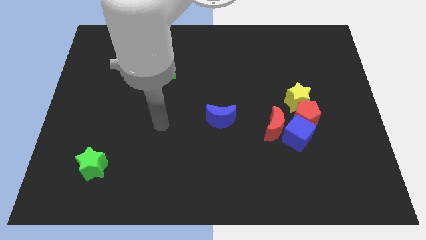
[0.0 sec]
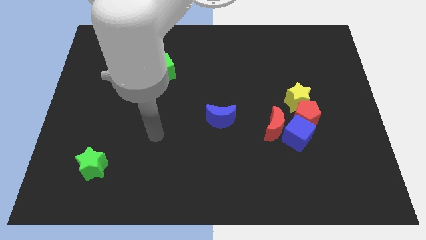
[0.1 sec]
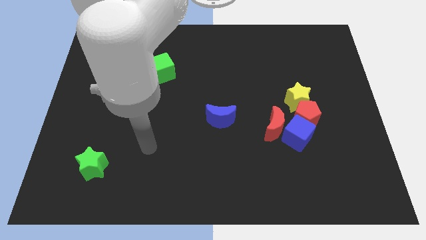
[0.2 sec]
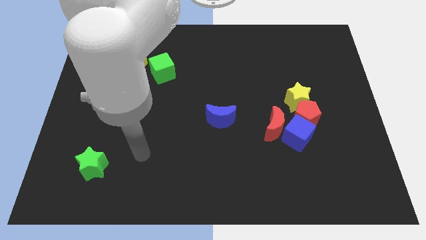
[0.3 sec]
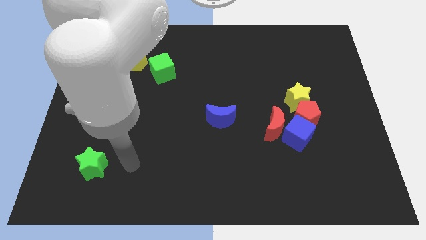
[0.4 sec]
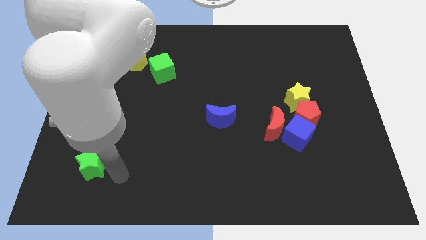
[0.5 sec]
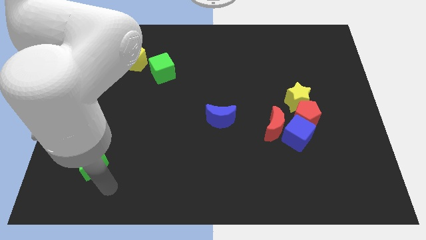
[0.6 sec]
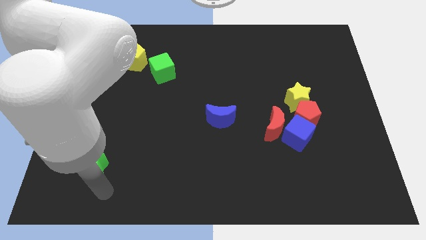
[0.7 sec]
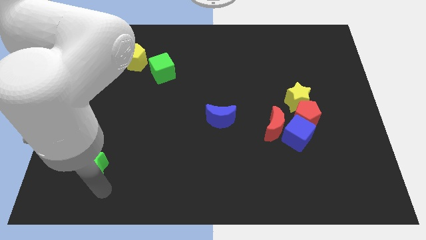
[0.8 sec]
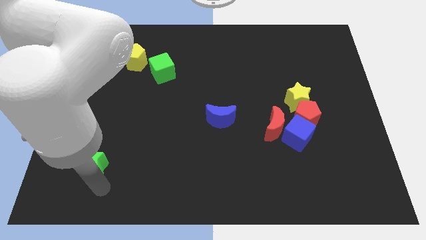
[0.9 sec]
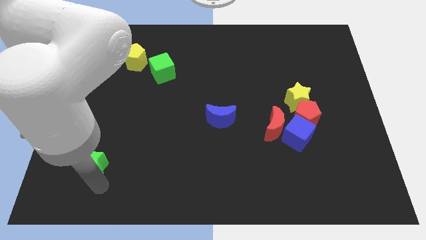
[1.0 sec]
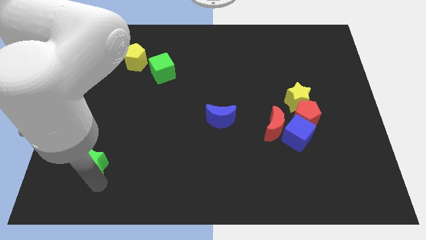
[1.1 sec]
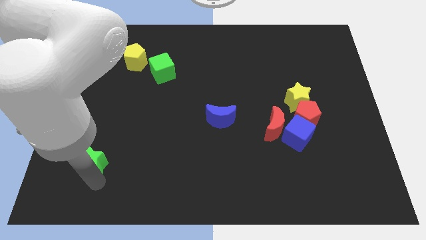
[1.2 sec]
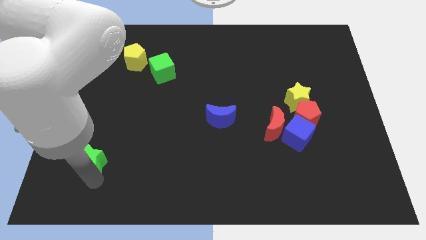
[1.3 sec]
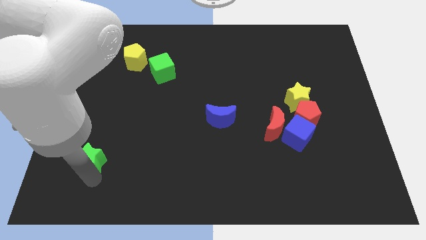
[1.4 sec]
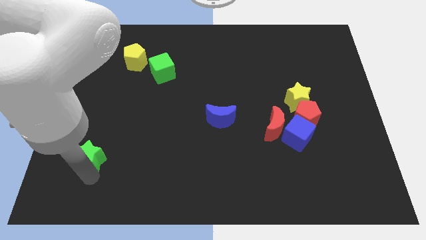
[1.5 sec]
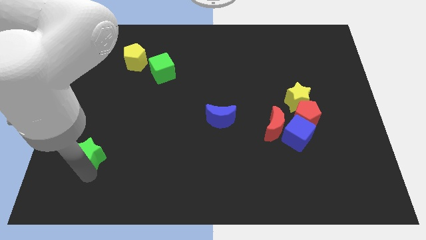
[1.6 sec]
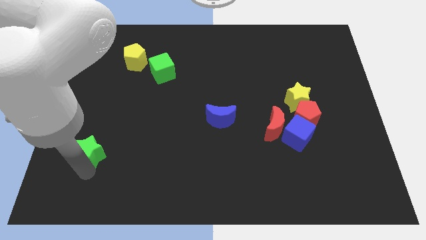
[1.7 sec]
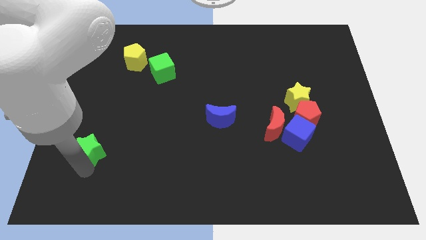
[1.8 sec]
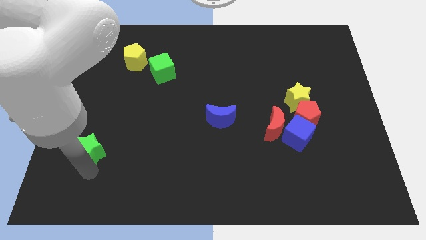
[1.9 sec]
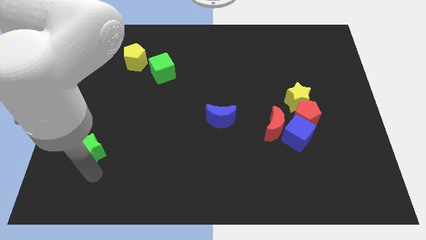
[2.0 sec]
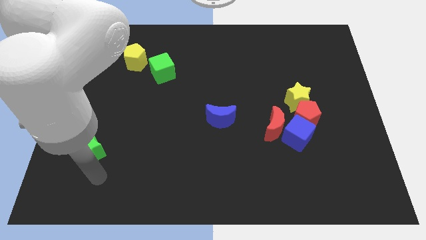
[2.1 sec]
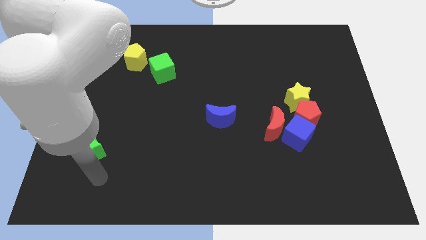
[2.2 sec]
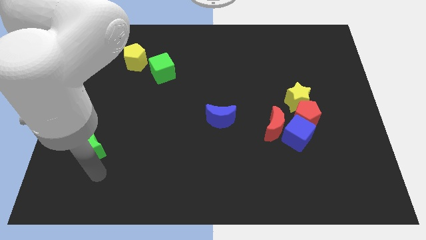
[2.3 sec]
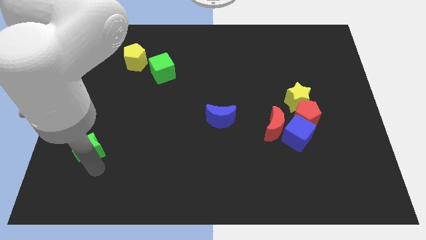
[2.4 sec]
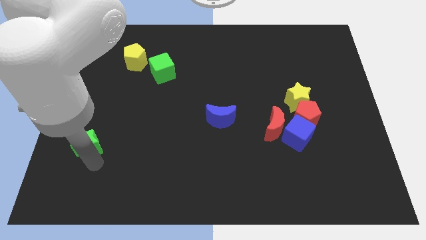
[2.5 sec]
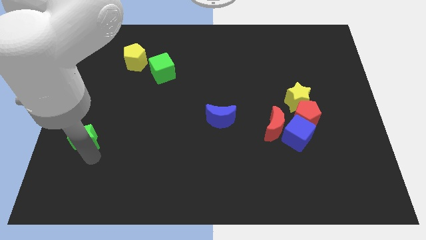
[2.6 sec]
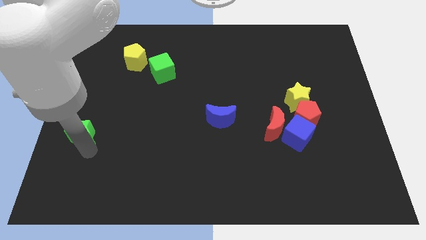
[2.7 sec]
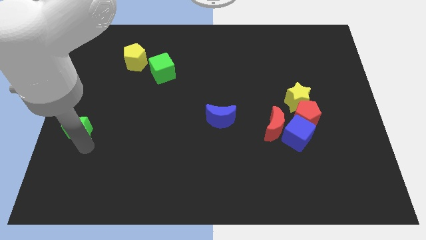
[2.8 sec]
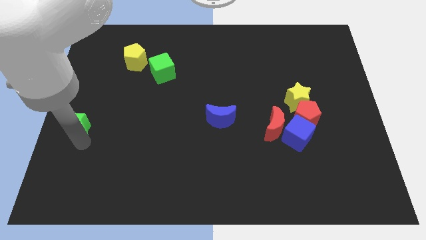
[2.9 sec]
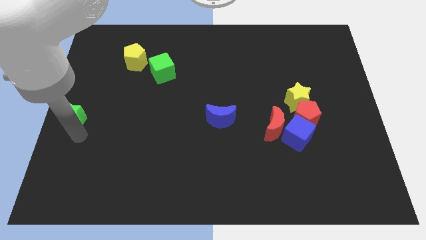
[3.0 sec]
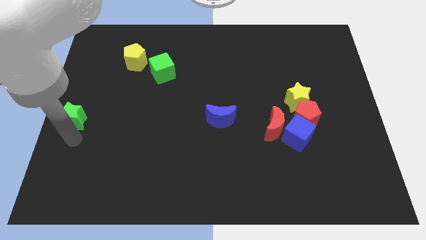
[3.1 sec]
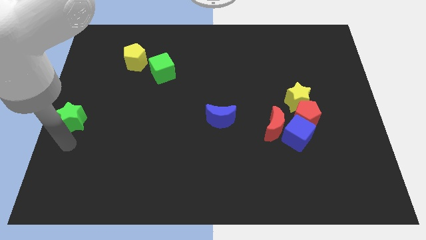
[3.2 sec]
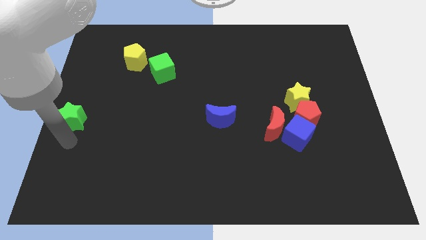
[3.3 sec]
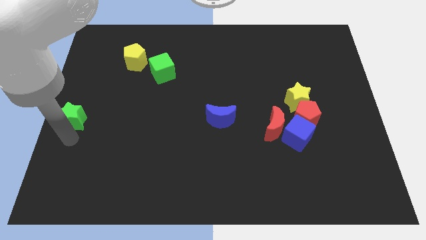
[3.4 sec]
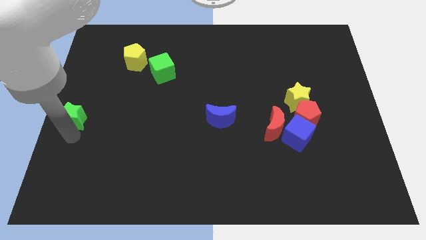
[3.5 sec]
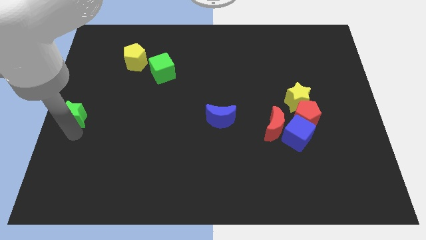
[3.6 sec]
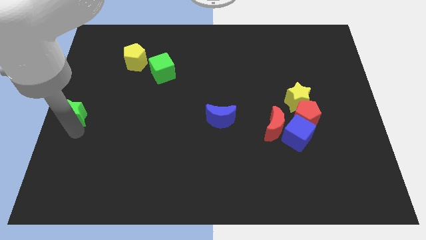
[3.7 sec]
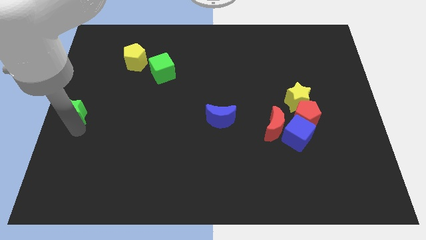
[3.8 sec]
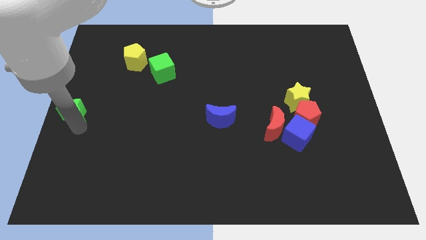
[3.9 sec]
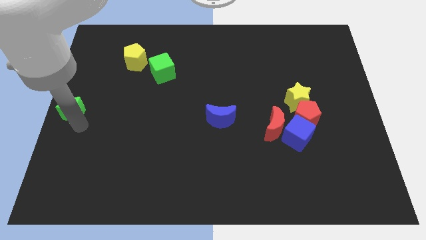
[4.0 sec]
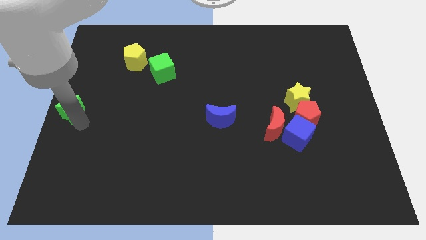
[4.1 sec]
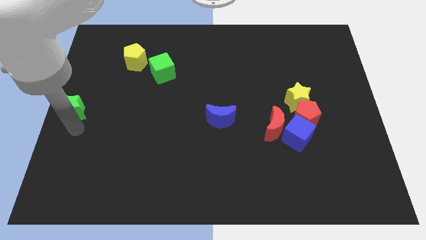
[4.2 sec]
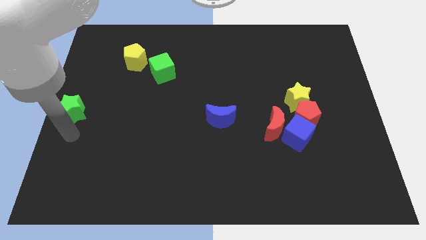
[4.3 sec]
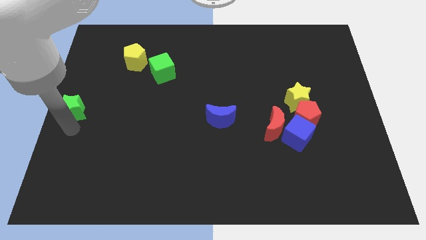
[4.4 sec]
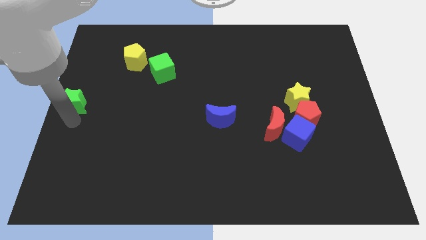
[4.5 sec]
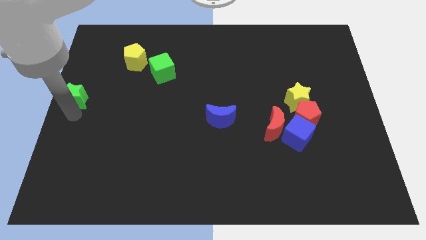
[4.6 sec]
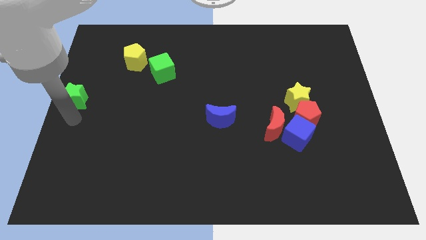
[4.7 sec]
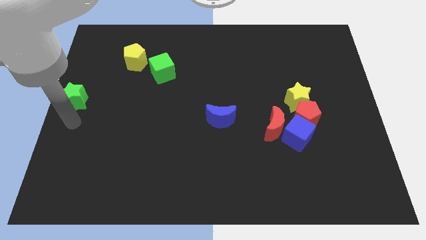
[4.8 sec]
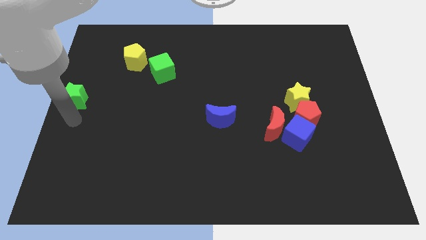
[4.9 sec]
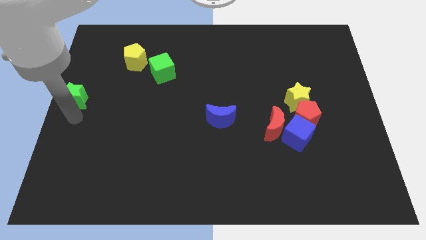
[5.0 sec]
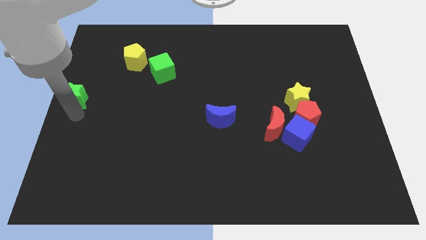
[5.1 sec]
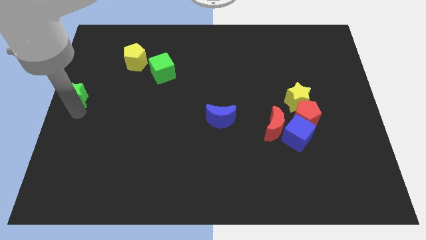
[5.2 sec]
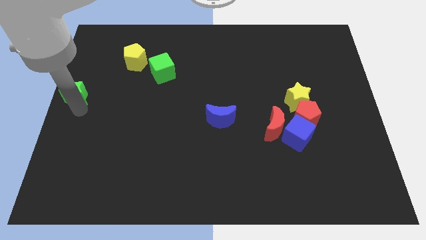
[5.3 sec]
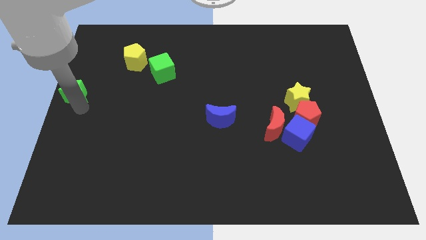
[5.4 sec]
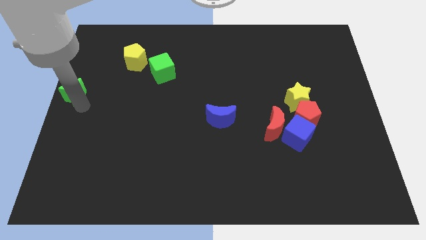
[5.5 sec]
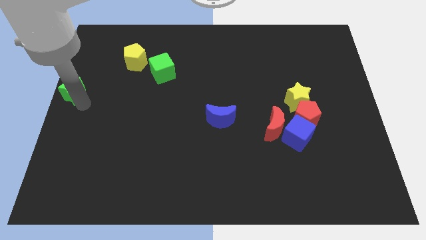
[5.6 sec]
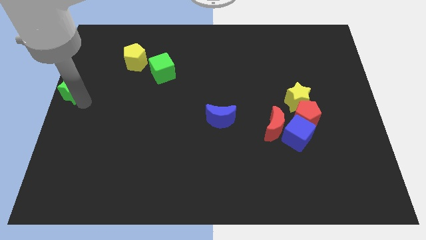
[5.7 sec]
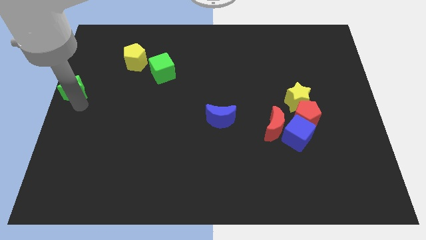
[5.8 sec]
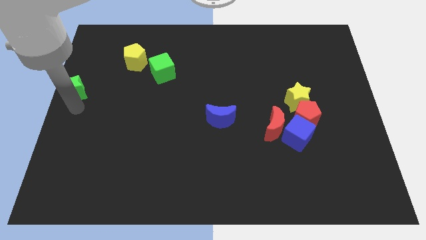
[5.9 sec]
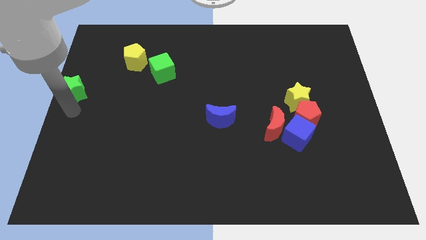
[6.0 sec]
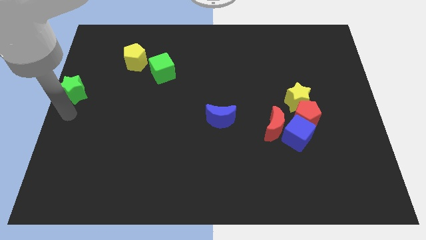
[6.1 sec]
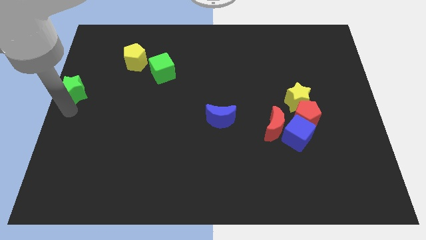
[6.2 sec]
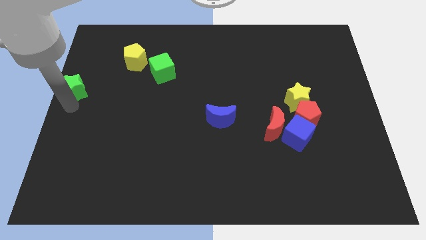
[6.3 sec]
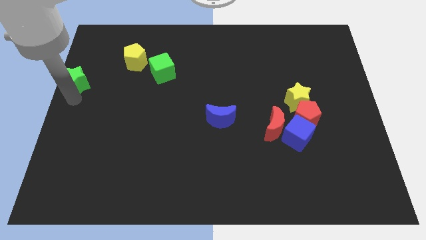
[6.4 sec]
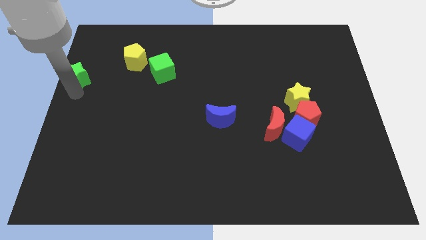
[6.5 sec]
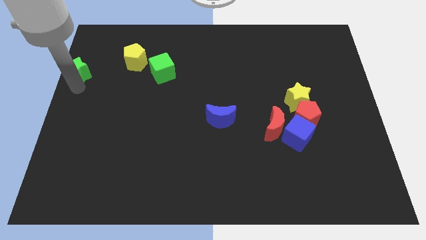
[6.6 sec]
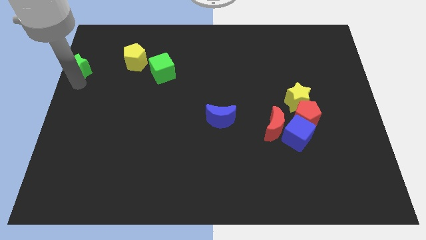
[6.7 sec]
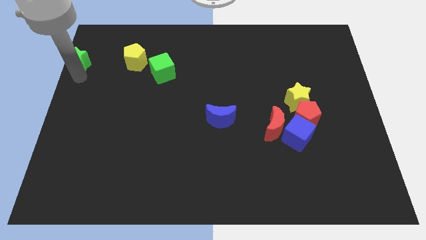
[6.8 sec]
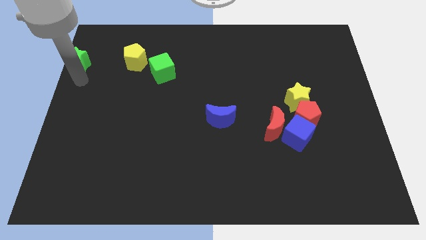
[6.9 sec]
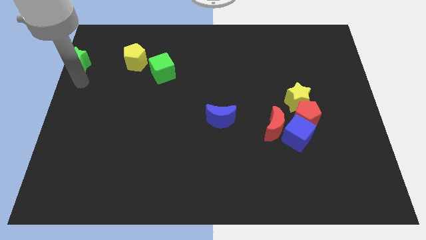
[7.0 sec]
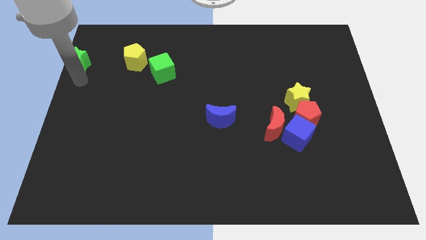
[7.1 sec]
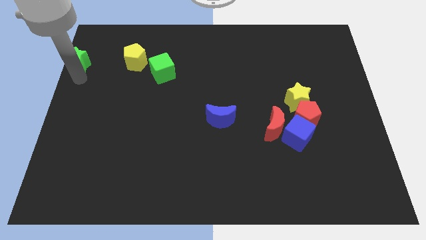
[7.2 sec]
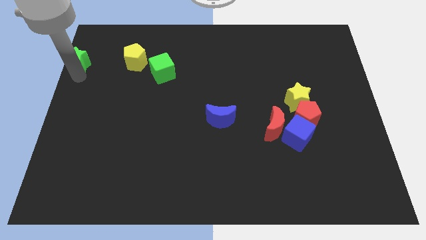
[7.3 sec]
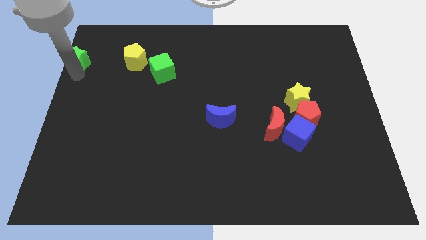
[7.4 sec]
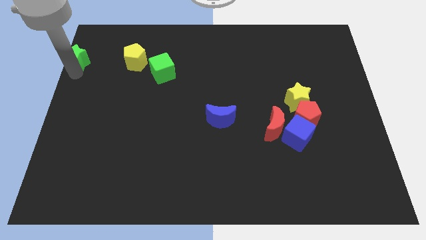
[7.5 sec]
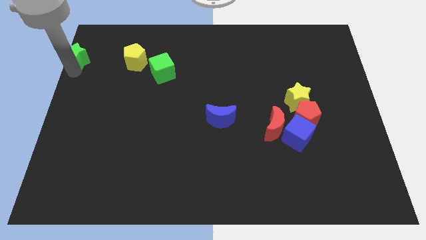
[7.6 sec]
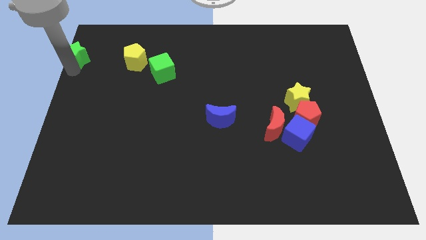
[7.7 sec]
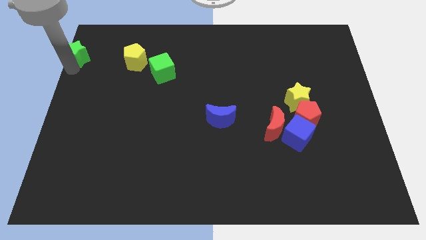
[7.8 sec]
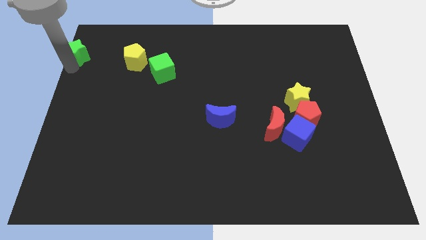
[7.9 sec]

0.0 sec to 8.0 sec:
put the green star to the top left
